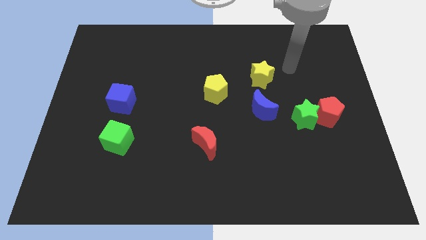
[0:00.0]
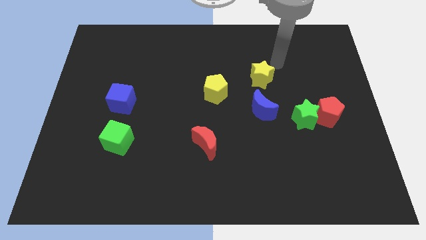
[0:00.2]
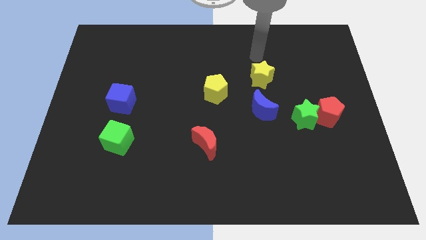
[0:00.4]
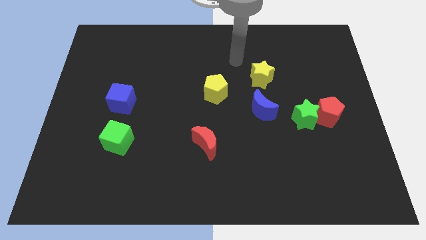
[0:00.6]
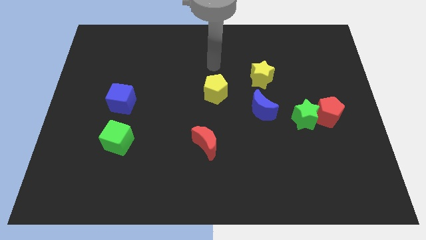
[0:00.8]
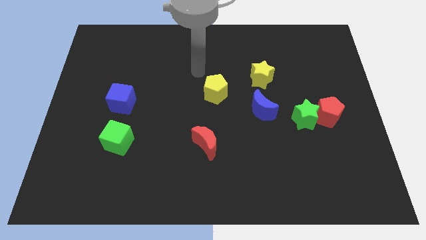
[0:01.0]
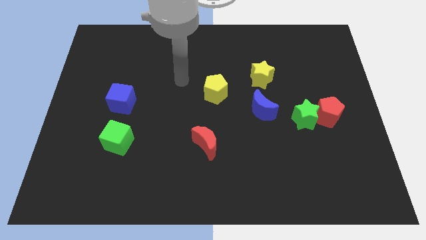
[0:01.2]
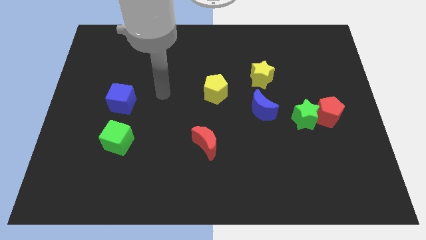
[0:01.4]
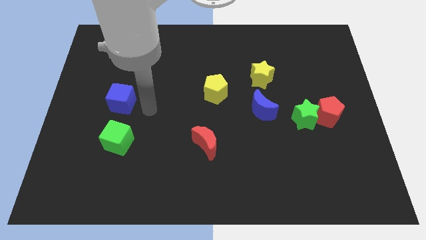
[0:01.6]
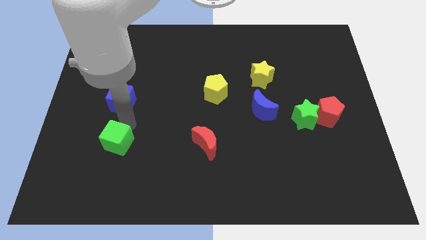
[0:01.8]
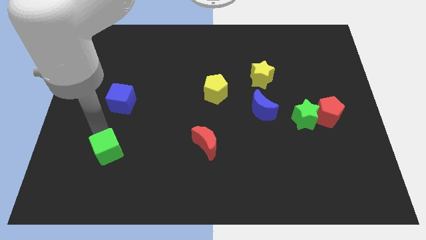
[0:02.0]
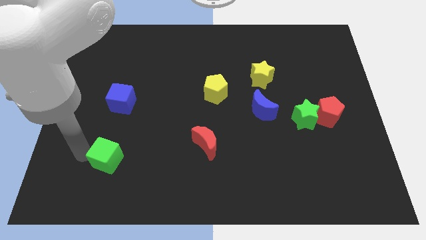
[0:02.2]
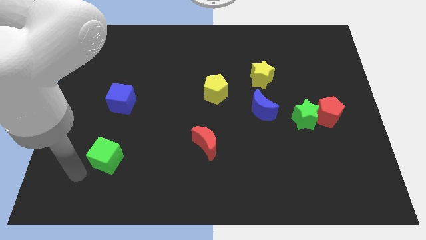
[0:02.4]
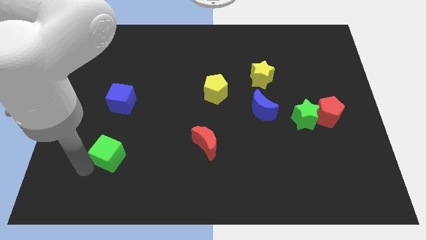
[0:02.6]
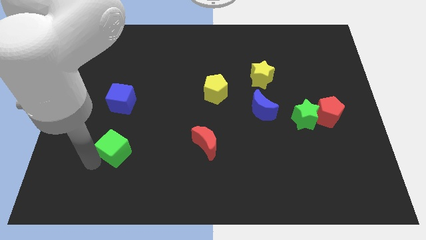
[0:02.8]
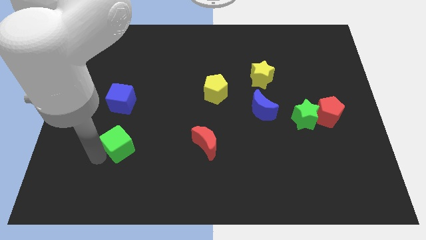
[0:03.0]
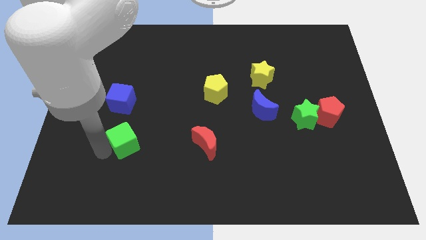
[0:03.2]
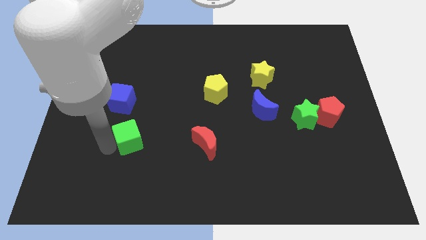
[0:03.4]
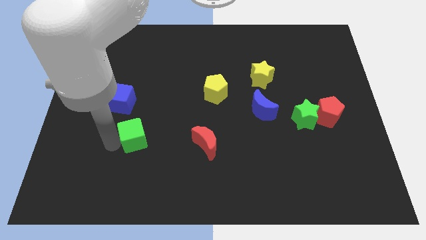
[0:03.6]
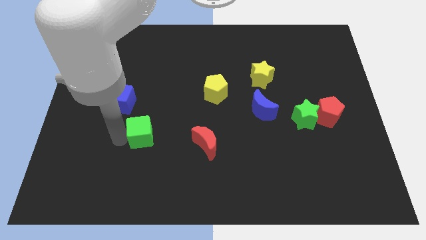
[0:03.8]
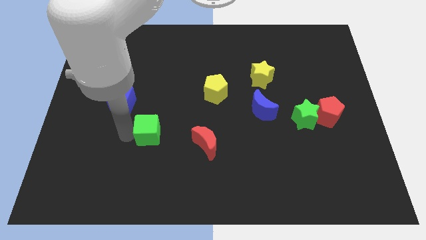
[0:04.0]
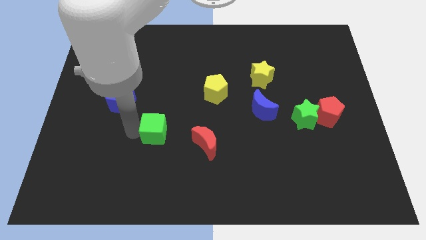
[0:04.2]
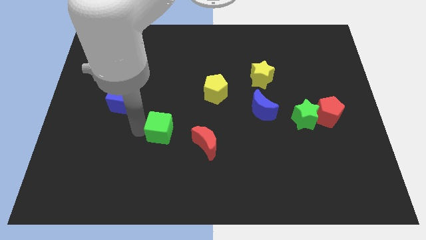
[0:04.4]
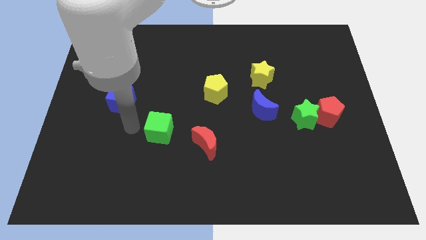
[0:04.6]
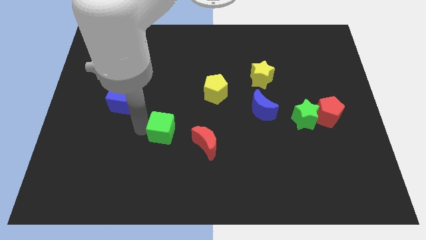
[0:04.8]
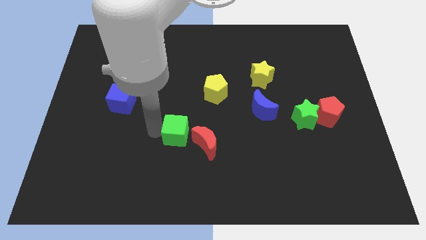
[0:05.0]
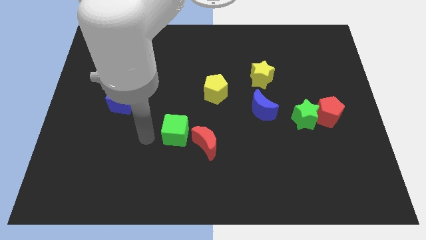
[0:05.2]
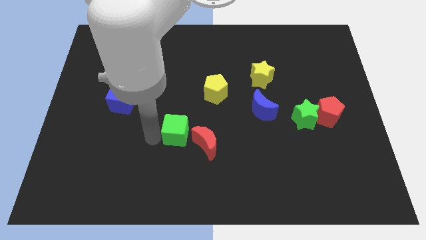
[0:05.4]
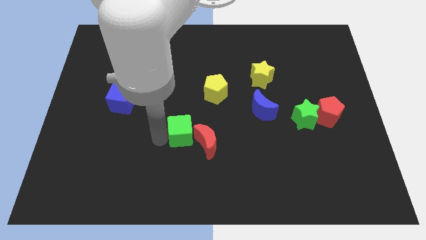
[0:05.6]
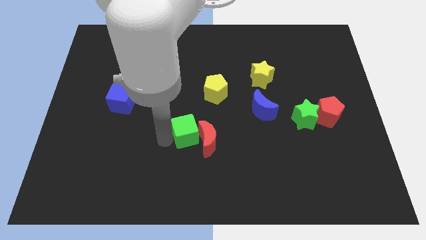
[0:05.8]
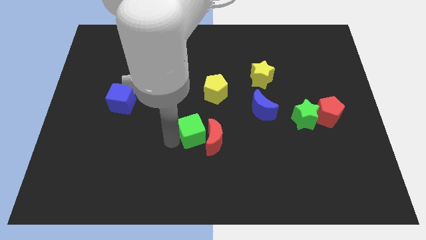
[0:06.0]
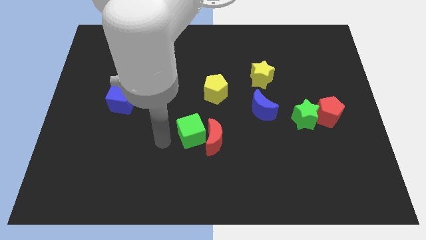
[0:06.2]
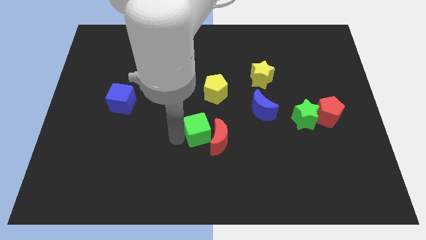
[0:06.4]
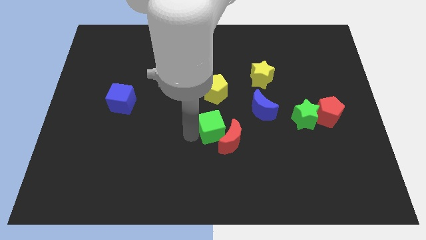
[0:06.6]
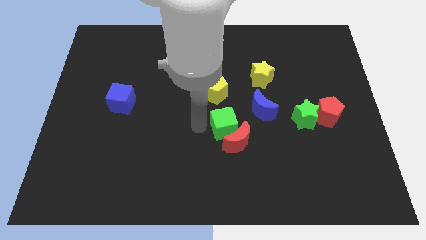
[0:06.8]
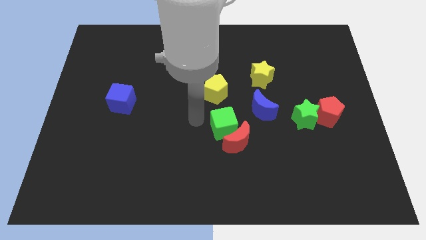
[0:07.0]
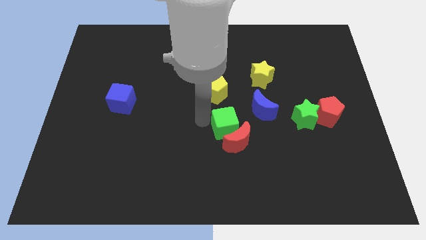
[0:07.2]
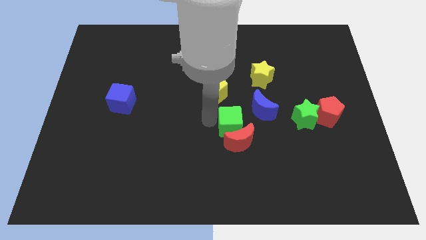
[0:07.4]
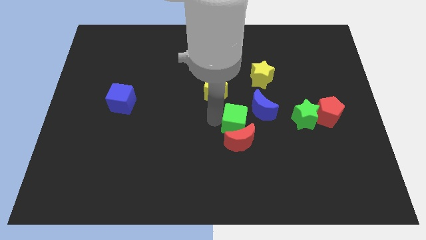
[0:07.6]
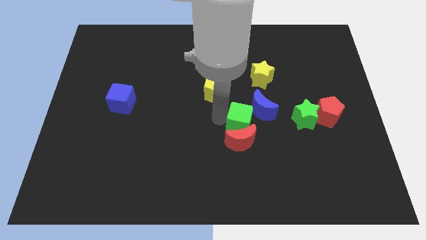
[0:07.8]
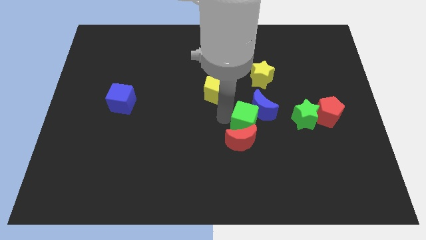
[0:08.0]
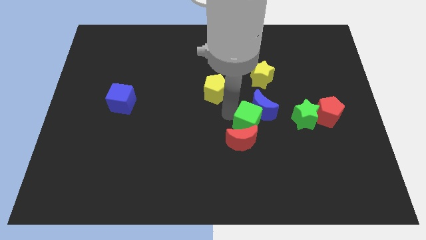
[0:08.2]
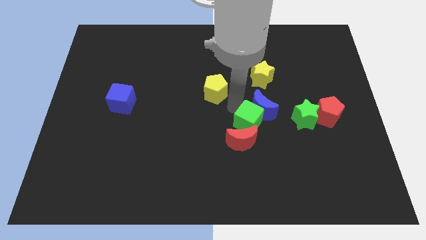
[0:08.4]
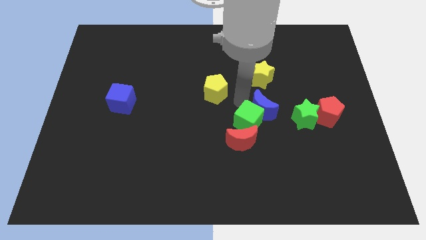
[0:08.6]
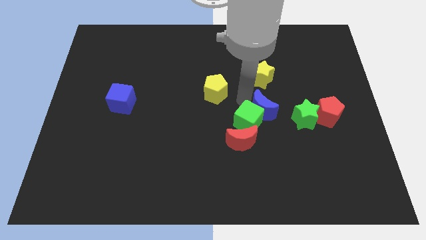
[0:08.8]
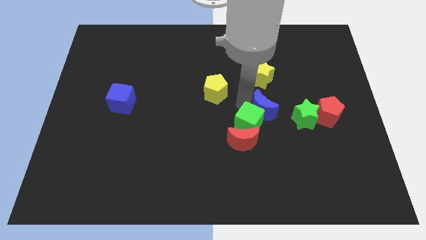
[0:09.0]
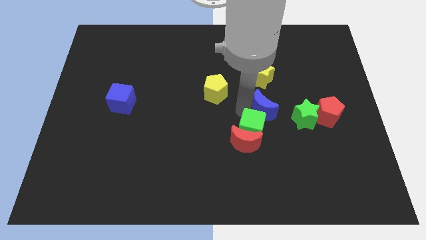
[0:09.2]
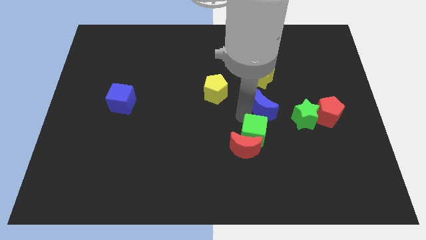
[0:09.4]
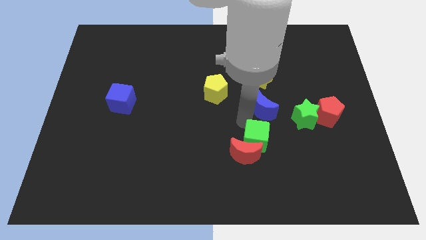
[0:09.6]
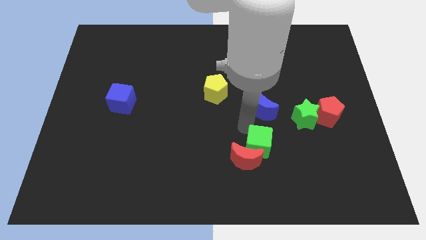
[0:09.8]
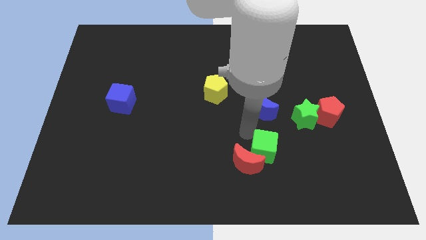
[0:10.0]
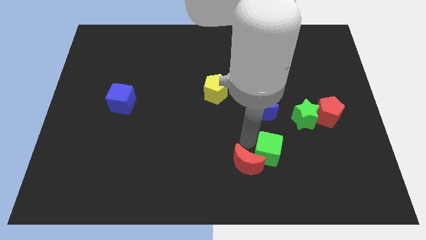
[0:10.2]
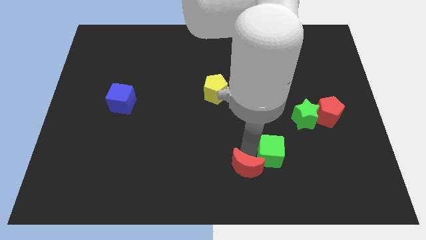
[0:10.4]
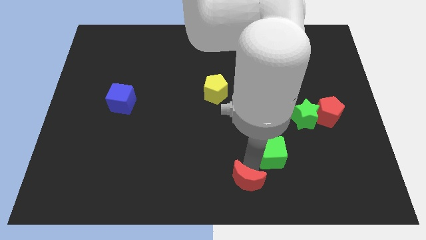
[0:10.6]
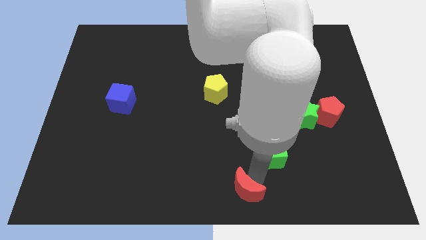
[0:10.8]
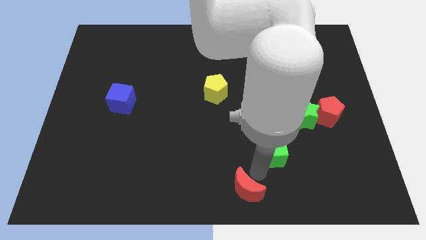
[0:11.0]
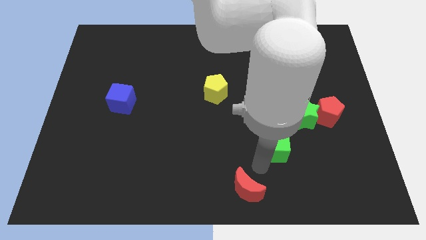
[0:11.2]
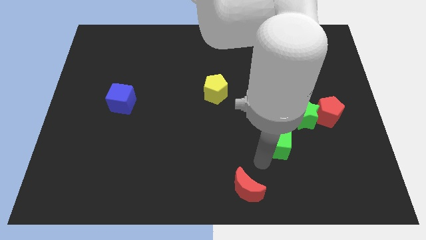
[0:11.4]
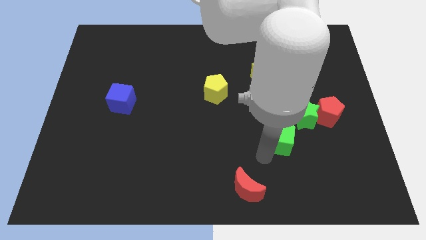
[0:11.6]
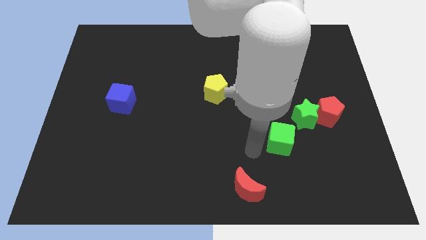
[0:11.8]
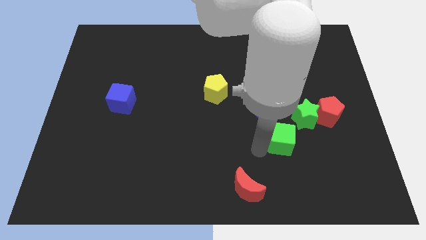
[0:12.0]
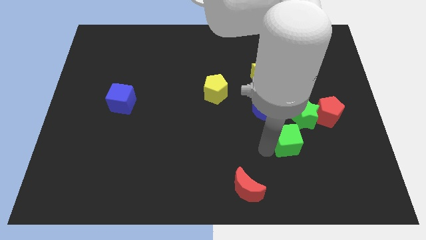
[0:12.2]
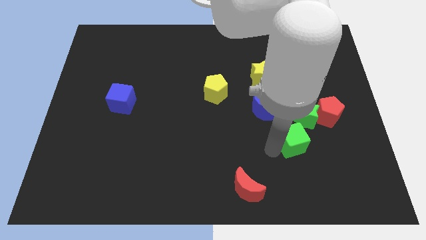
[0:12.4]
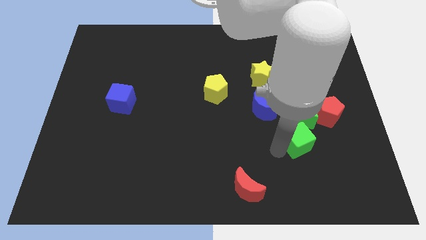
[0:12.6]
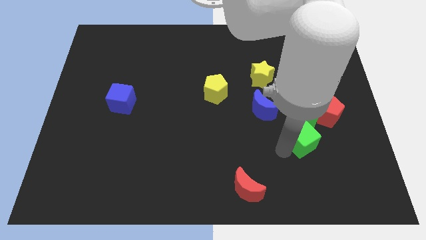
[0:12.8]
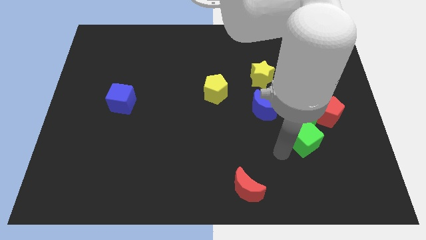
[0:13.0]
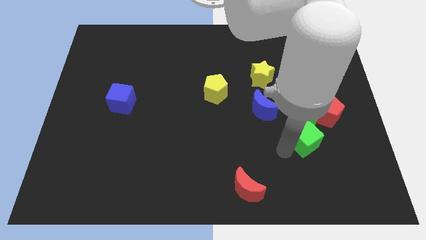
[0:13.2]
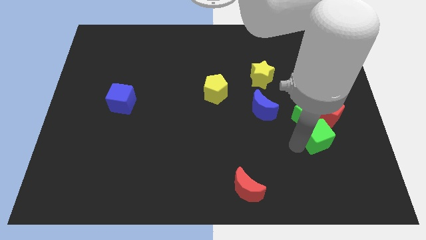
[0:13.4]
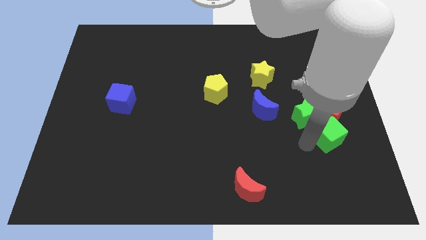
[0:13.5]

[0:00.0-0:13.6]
push the green cube close to the red pentagon

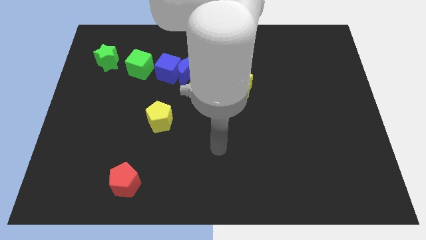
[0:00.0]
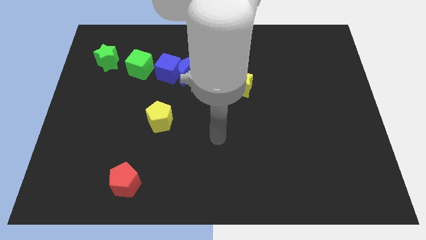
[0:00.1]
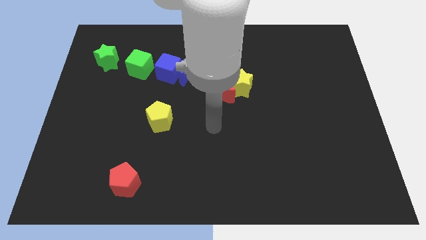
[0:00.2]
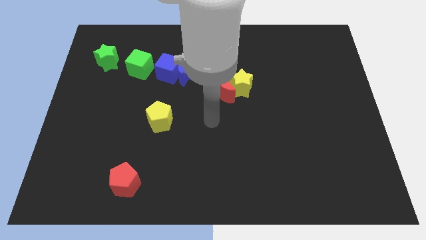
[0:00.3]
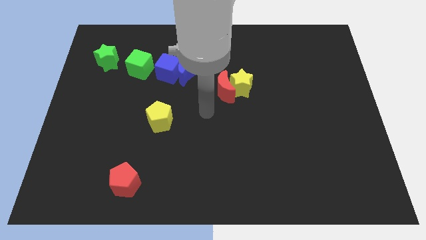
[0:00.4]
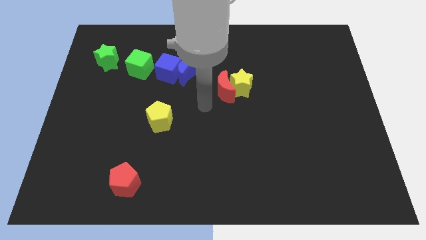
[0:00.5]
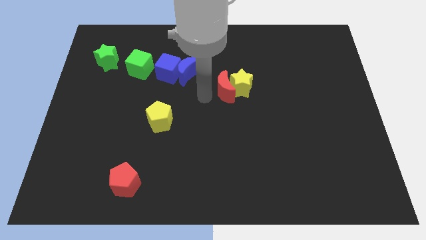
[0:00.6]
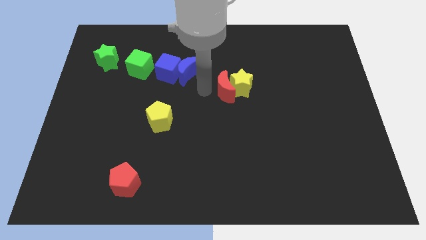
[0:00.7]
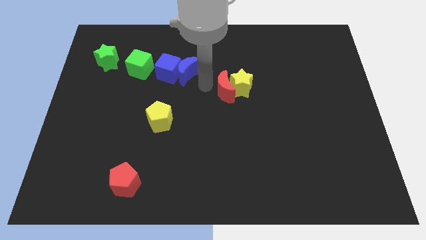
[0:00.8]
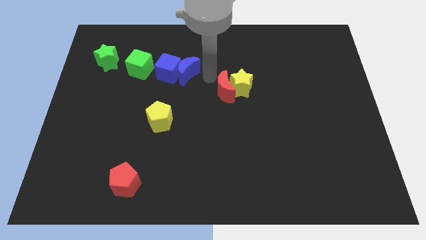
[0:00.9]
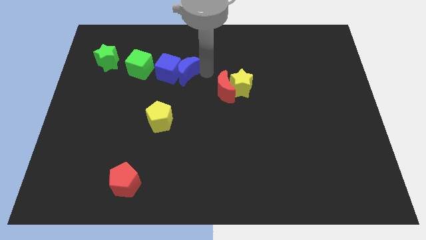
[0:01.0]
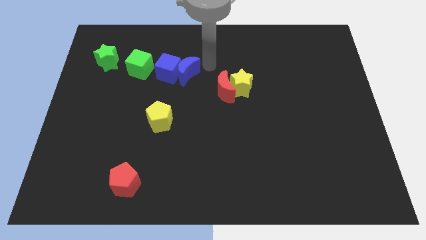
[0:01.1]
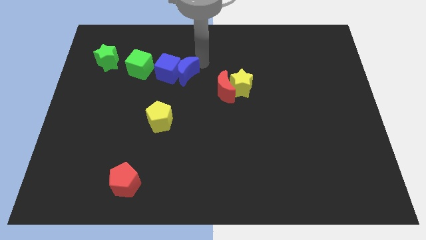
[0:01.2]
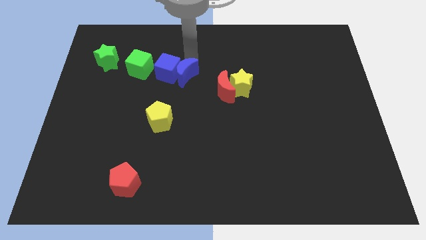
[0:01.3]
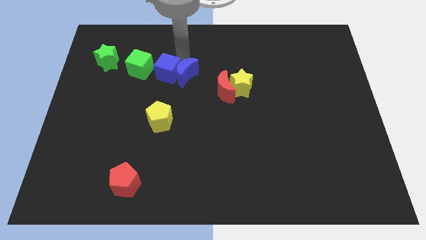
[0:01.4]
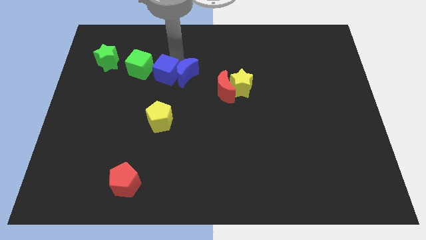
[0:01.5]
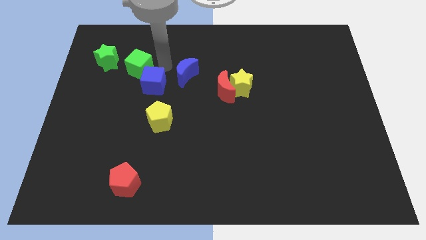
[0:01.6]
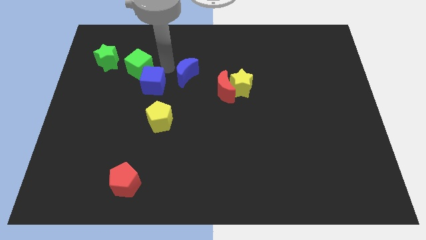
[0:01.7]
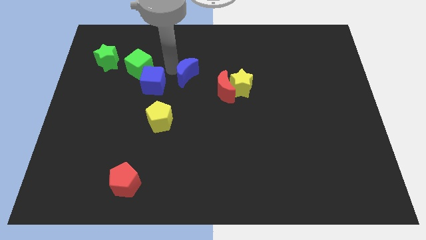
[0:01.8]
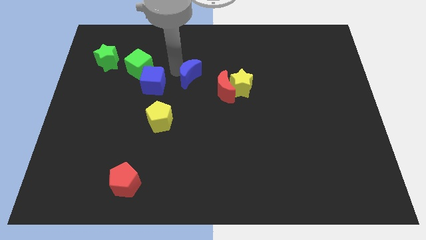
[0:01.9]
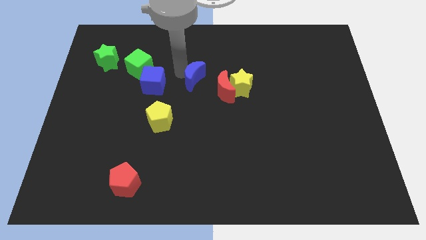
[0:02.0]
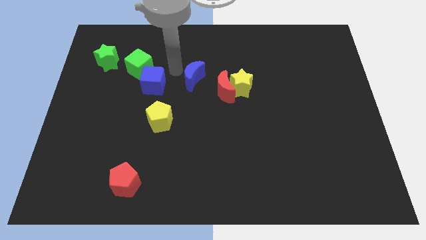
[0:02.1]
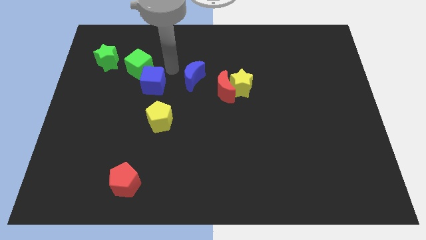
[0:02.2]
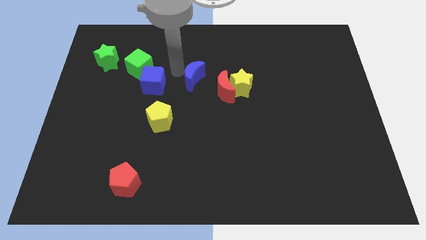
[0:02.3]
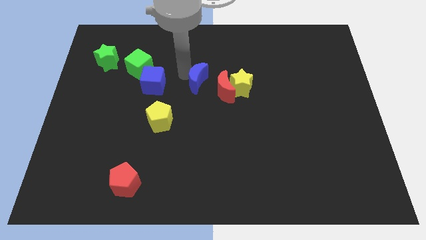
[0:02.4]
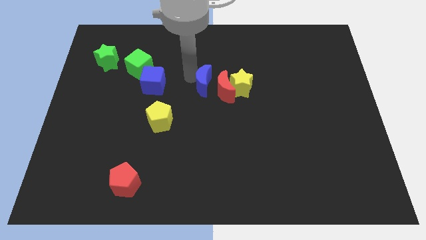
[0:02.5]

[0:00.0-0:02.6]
slide the blue moon towards the red moon
